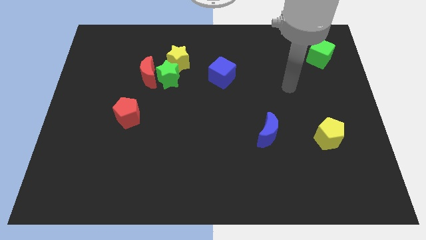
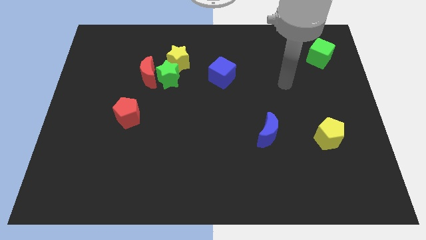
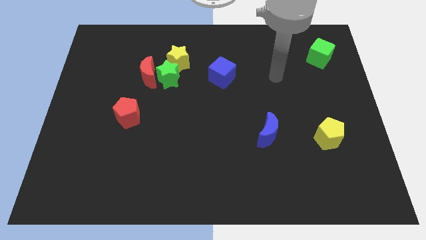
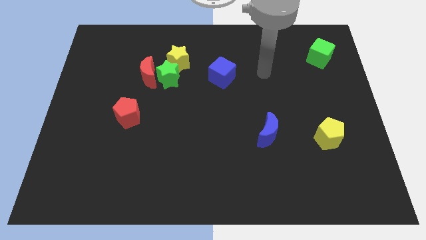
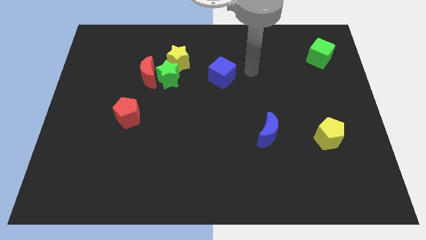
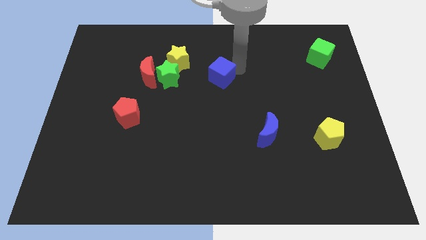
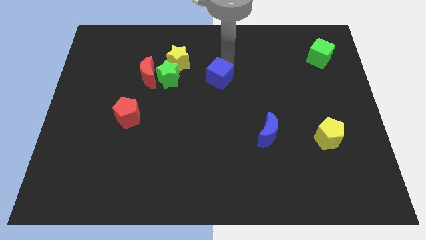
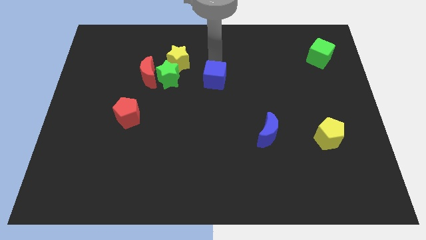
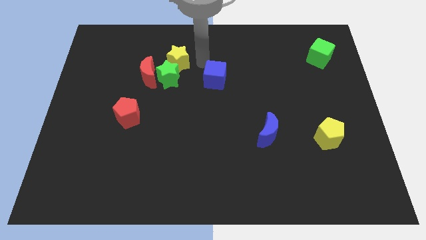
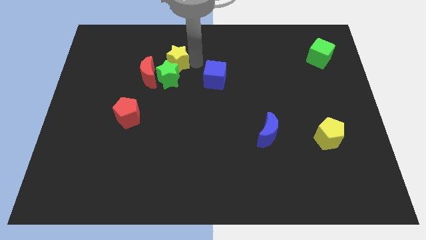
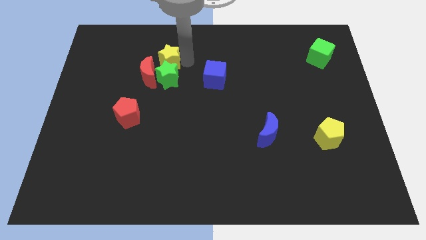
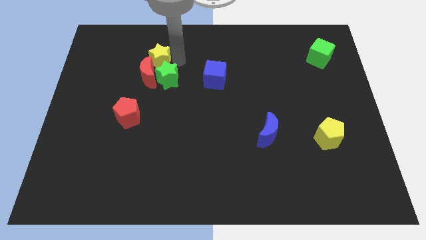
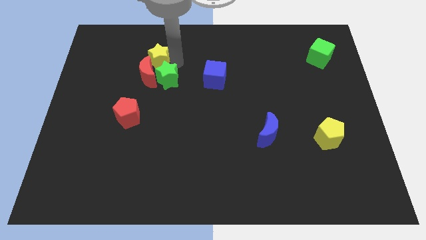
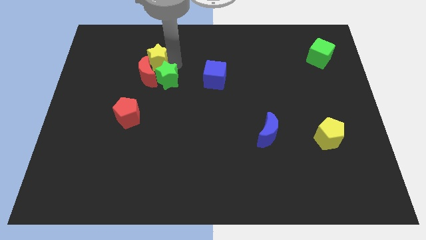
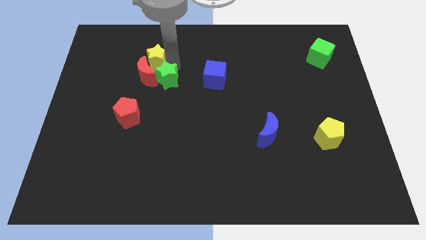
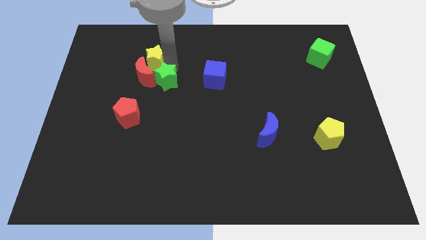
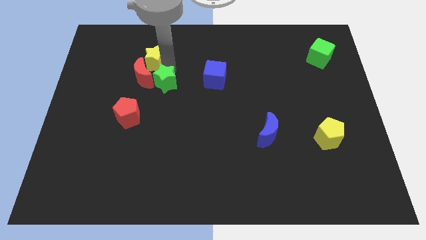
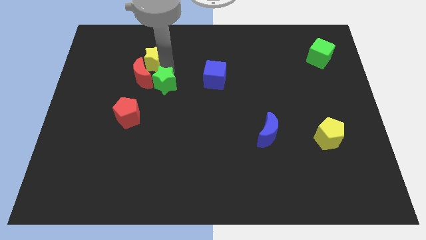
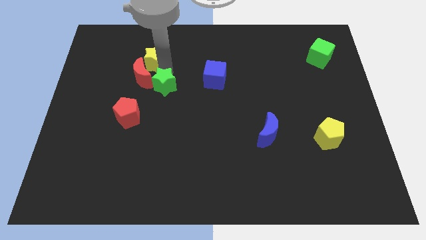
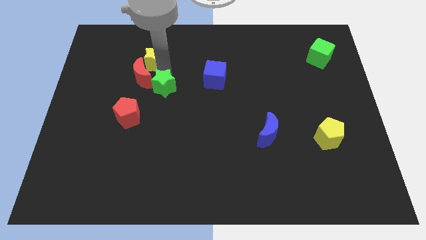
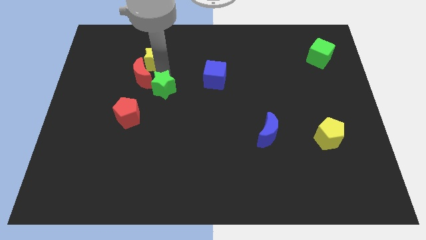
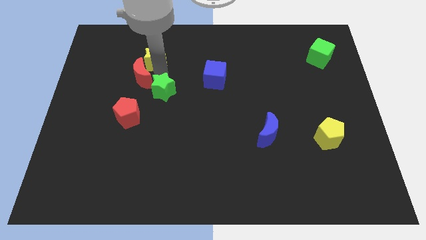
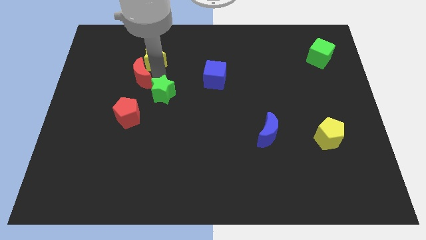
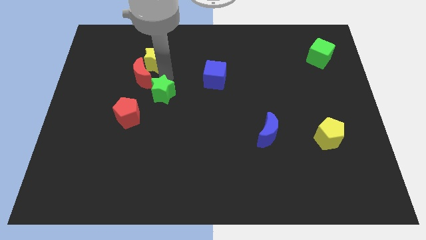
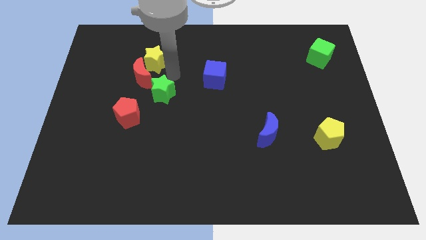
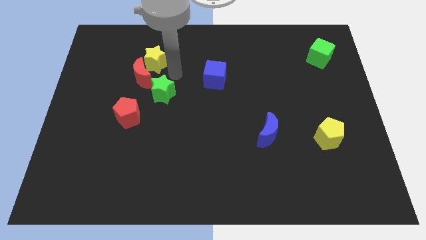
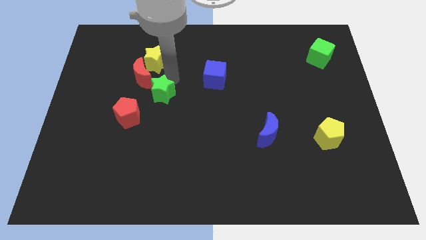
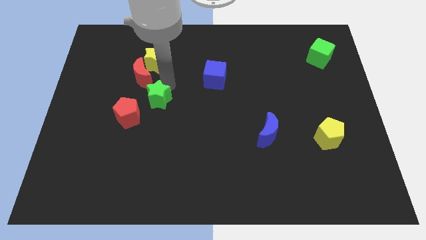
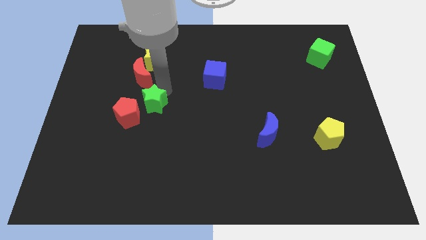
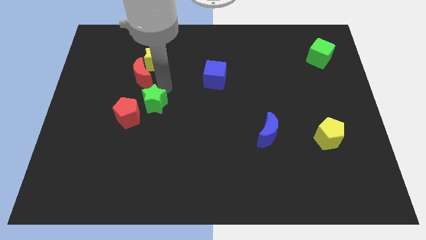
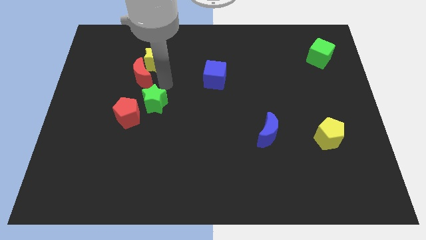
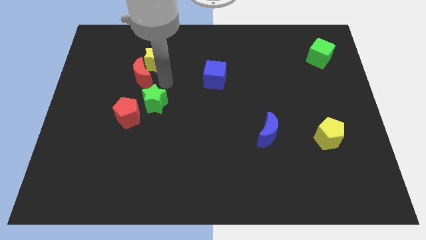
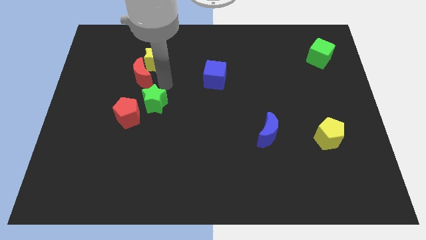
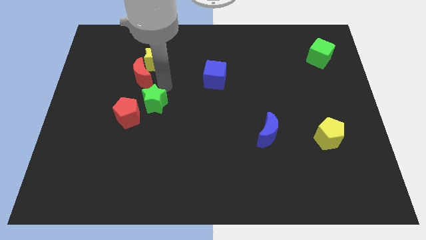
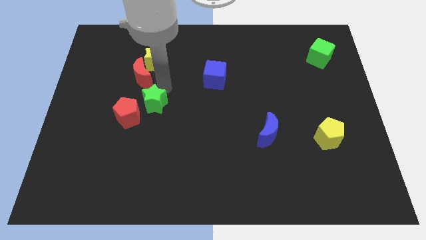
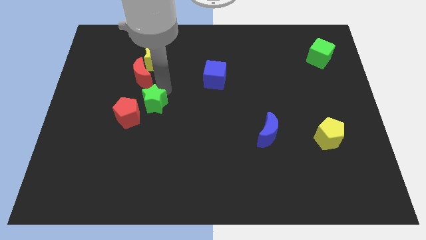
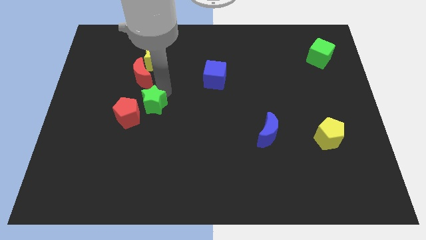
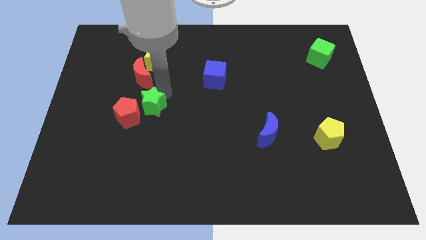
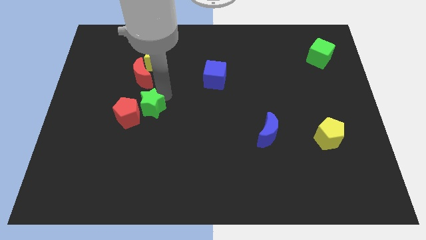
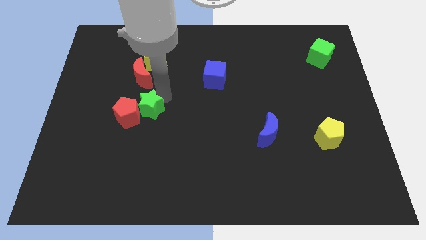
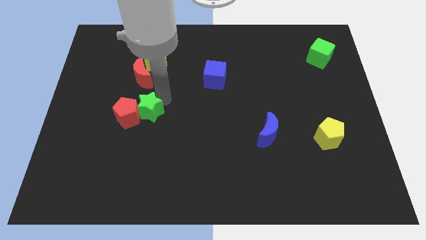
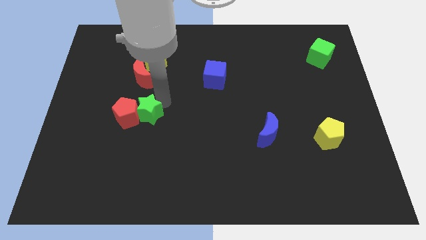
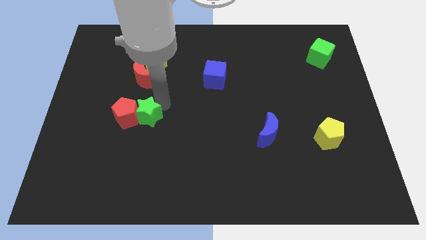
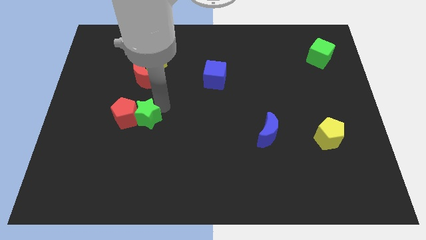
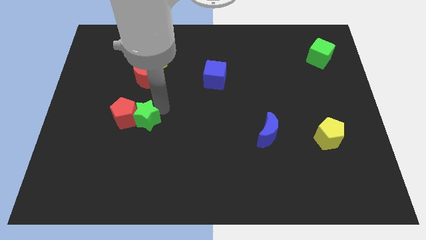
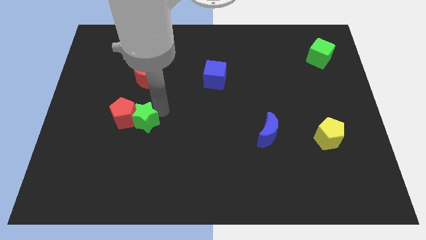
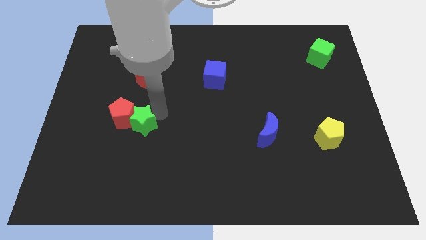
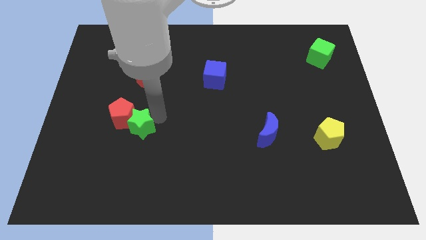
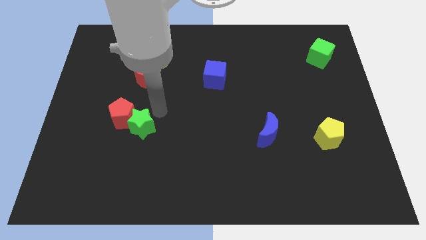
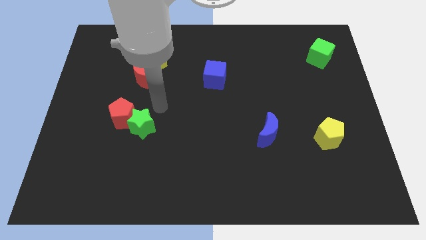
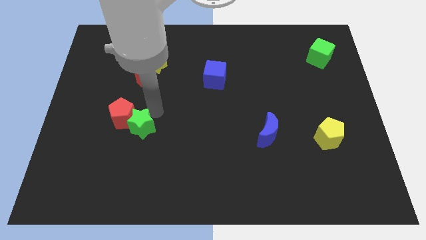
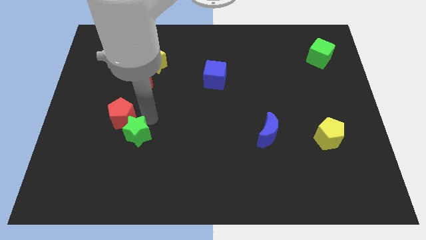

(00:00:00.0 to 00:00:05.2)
slide the green star to the bottom of the red pentagon
